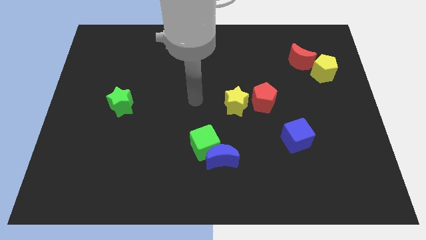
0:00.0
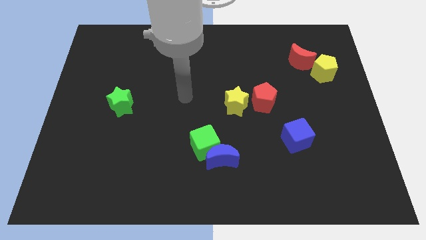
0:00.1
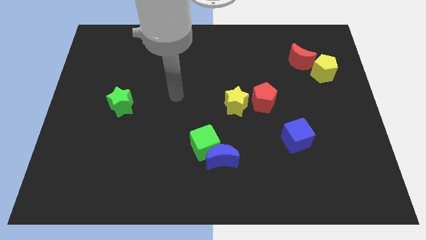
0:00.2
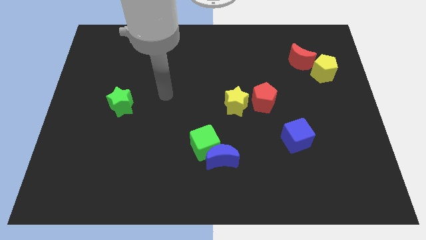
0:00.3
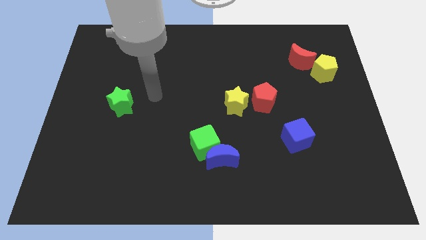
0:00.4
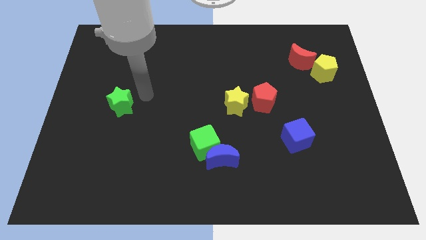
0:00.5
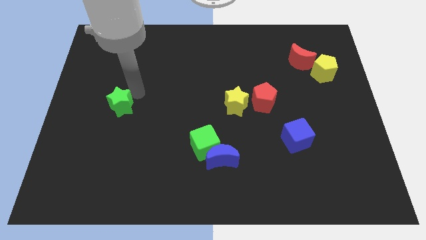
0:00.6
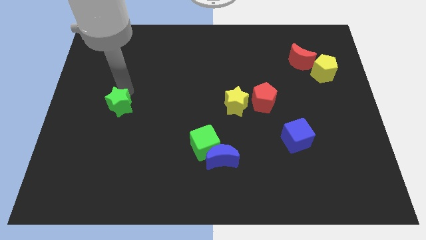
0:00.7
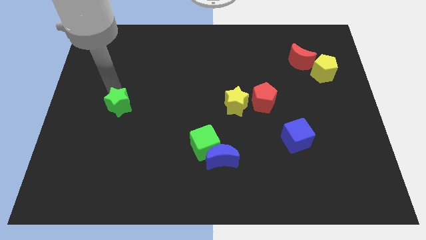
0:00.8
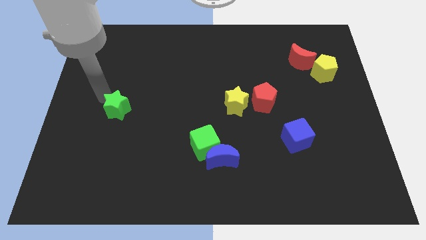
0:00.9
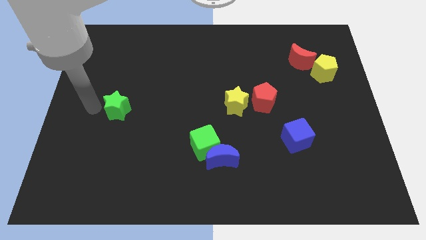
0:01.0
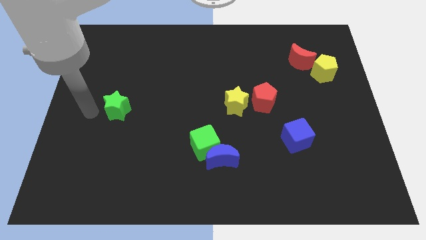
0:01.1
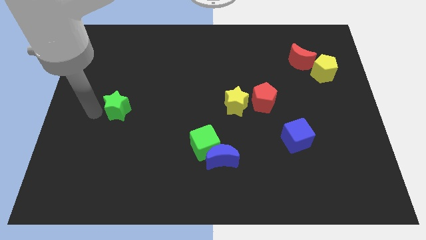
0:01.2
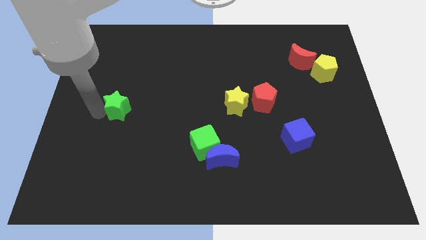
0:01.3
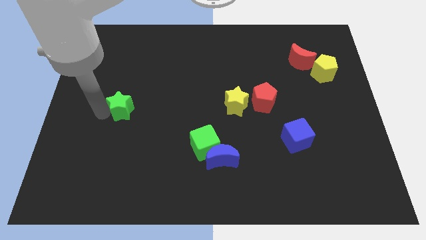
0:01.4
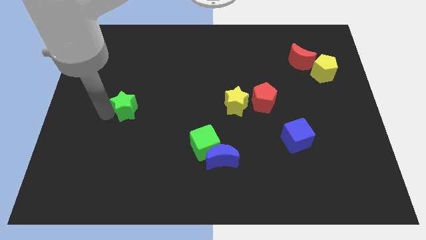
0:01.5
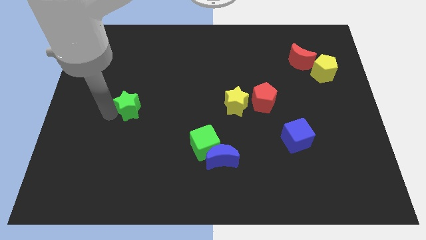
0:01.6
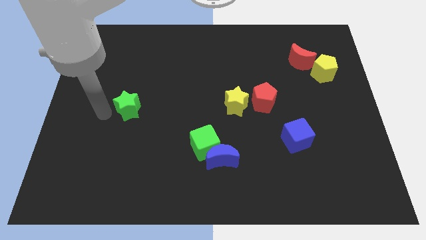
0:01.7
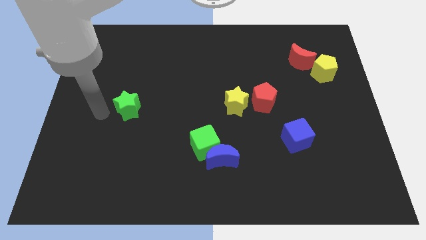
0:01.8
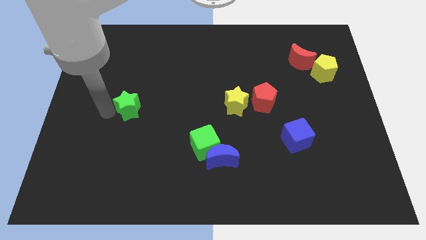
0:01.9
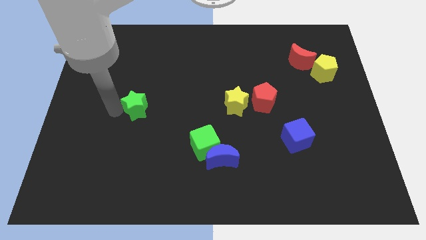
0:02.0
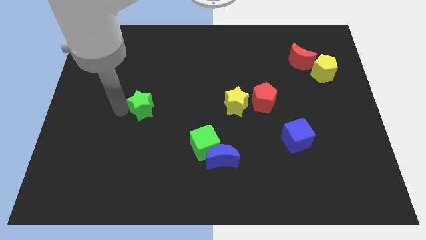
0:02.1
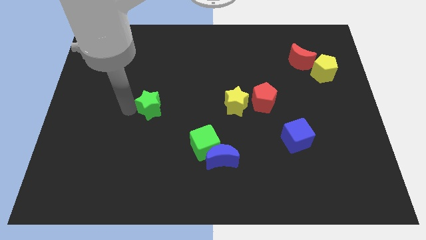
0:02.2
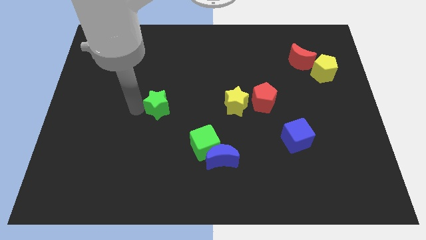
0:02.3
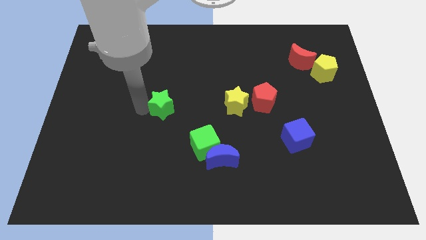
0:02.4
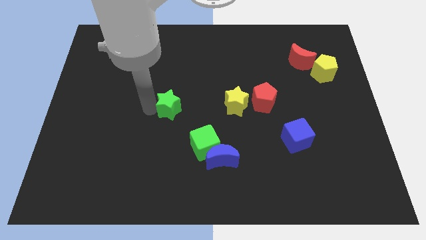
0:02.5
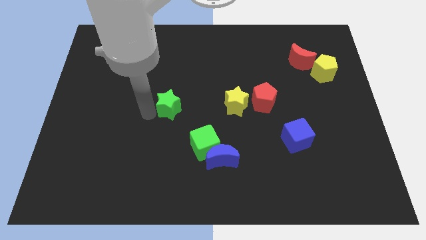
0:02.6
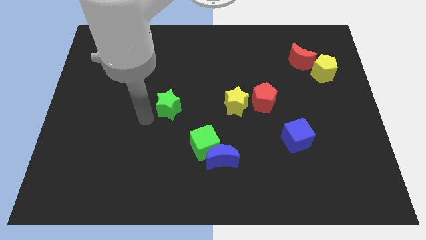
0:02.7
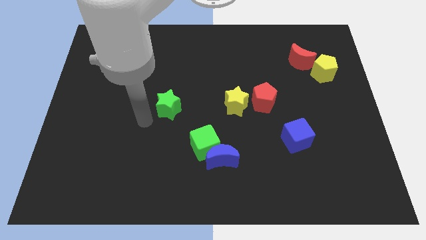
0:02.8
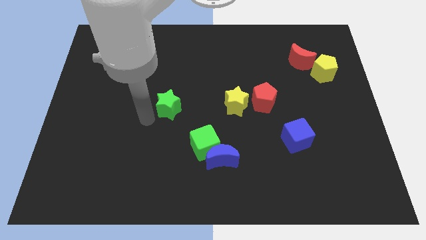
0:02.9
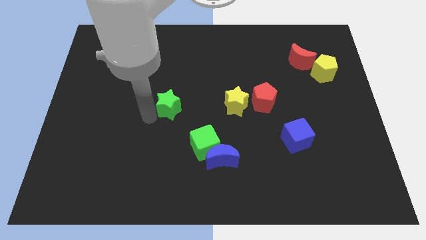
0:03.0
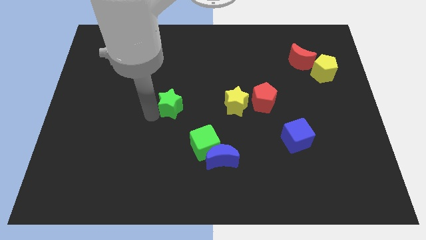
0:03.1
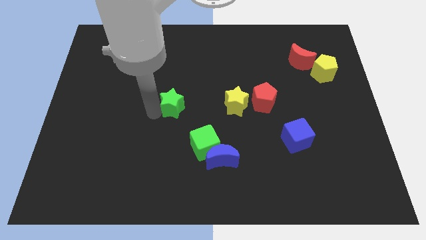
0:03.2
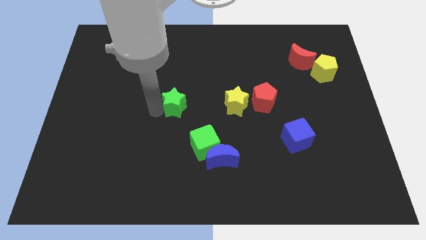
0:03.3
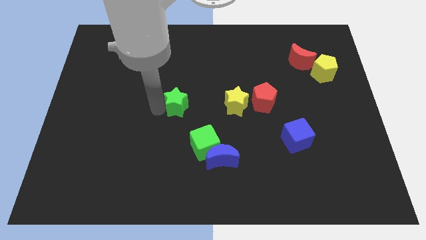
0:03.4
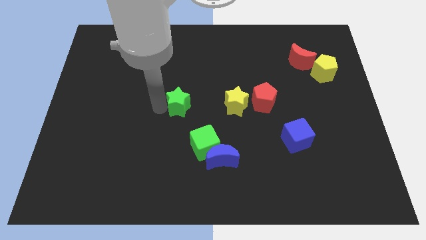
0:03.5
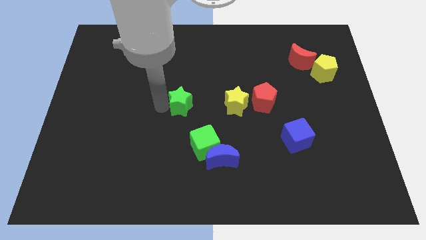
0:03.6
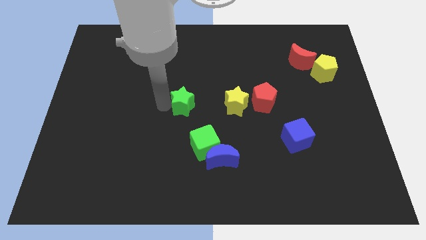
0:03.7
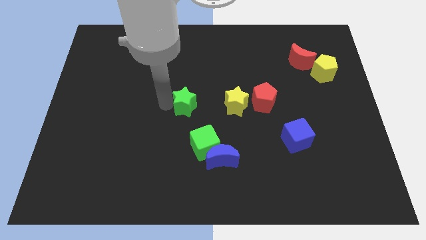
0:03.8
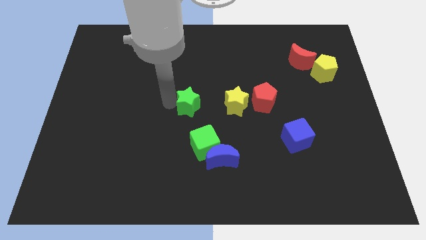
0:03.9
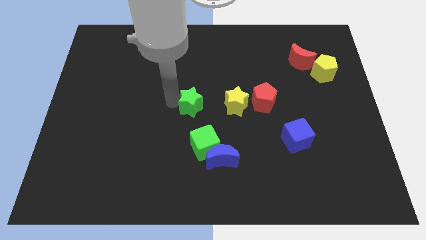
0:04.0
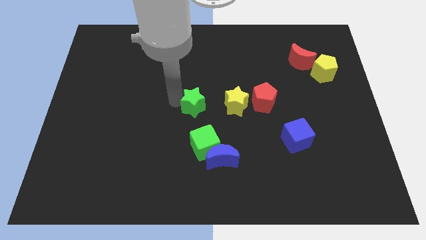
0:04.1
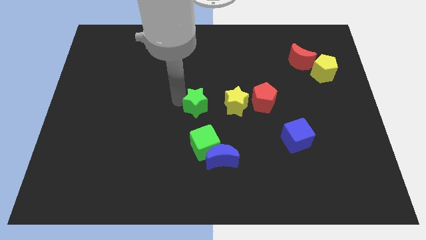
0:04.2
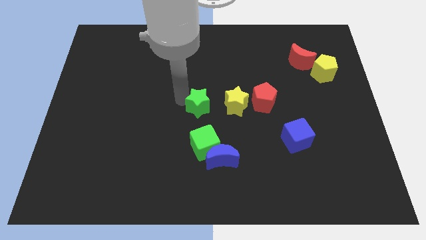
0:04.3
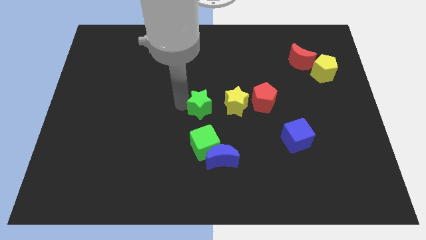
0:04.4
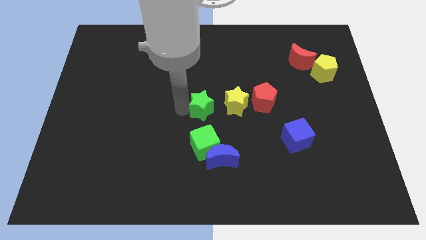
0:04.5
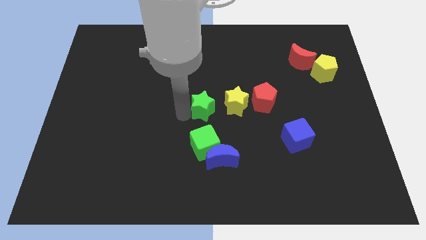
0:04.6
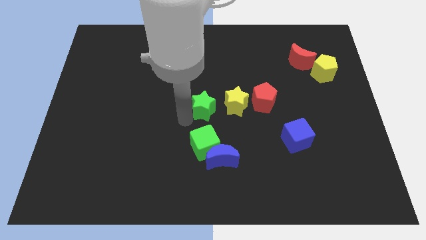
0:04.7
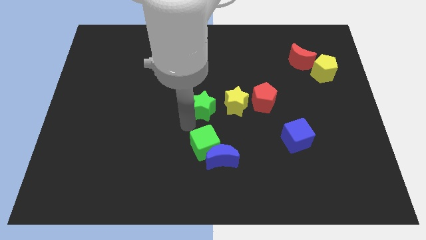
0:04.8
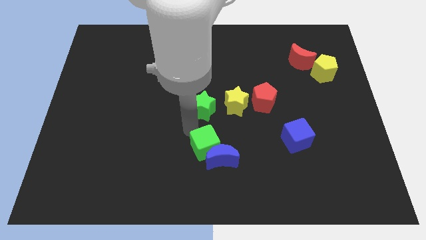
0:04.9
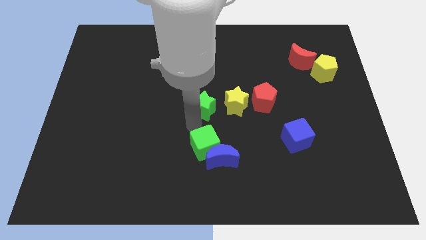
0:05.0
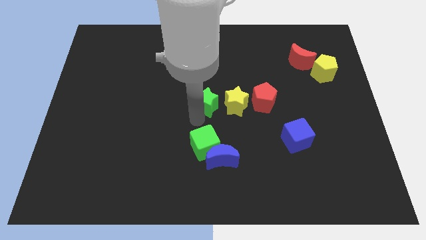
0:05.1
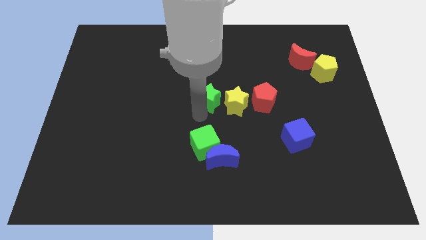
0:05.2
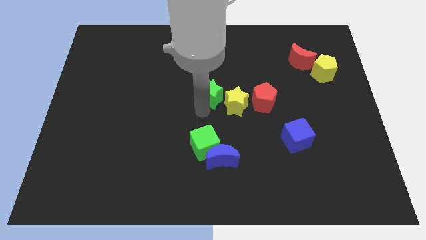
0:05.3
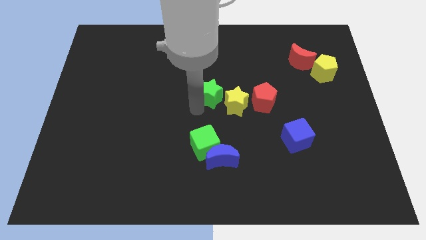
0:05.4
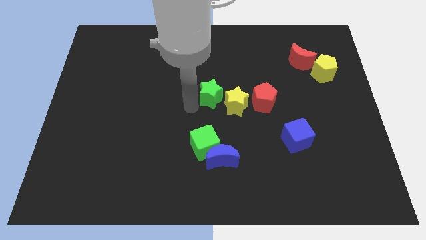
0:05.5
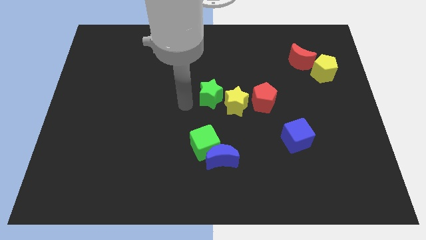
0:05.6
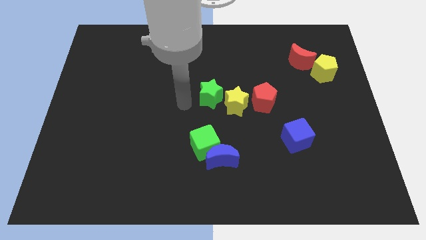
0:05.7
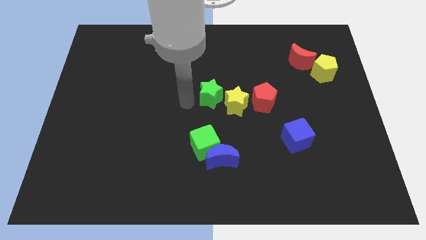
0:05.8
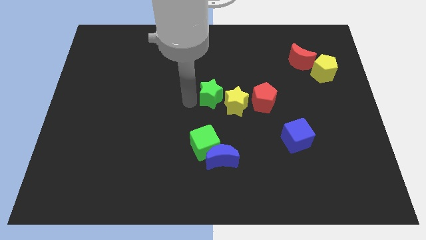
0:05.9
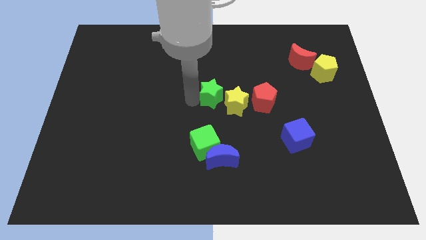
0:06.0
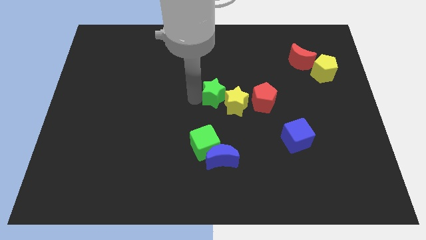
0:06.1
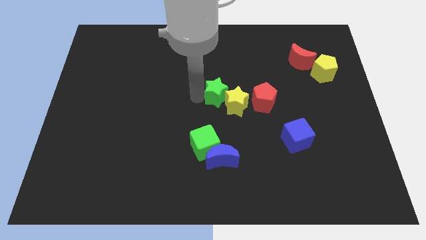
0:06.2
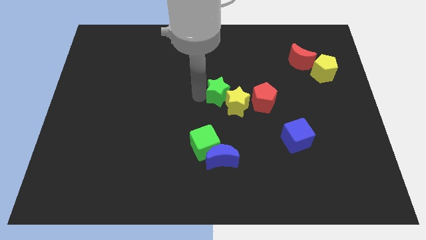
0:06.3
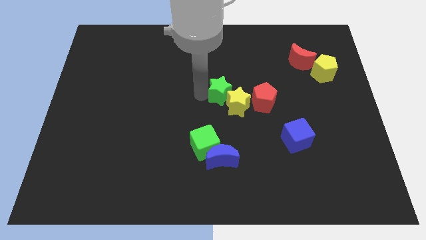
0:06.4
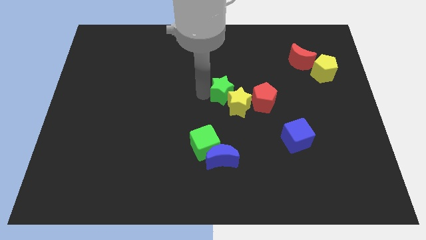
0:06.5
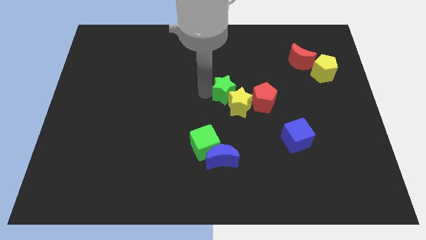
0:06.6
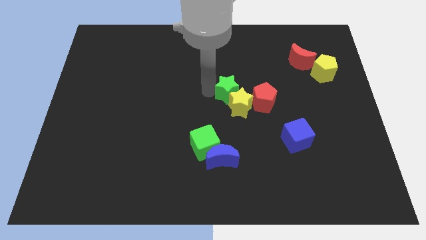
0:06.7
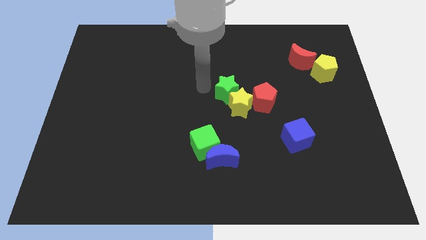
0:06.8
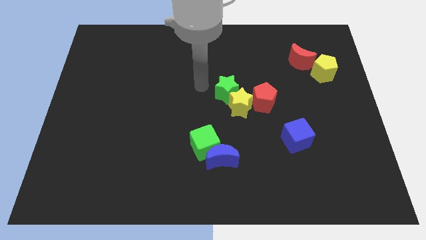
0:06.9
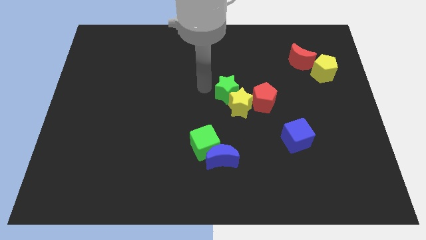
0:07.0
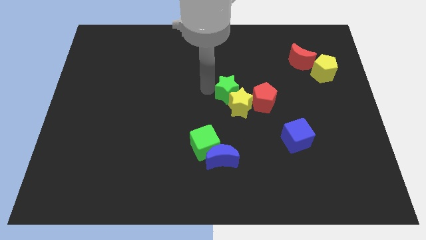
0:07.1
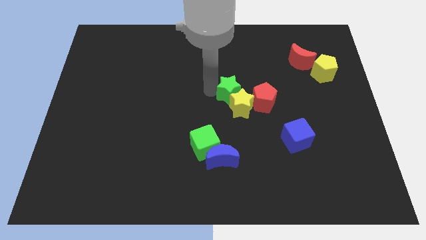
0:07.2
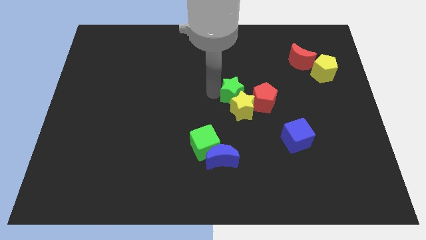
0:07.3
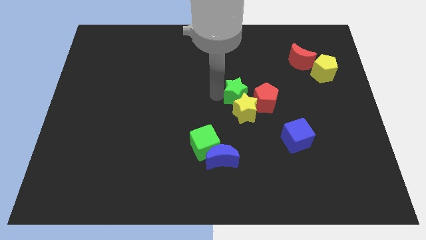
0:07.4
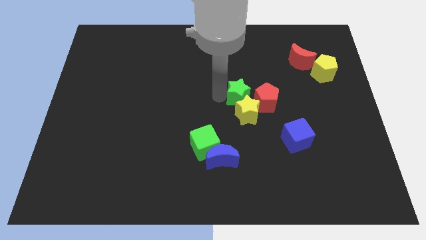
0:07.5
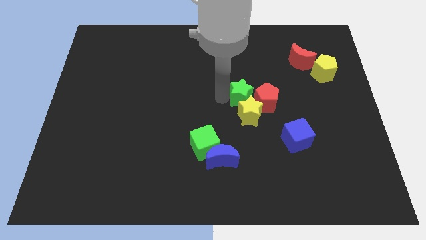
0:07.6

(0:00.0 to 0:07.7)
push the green star to the red pentagon
